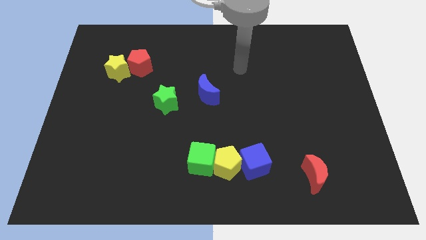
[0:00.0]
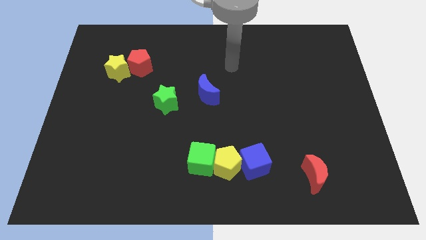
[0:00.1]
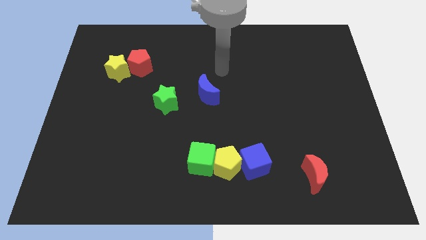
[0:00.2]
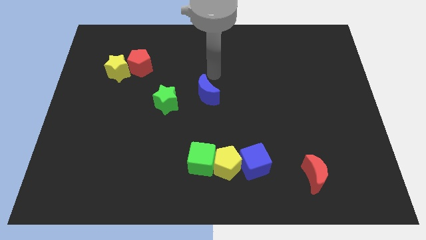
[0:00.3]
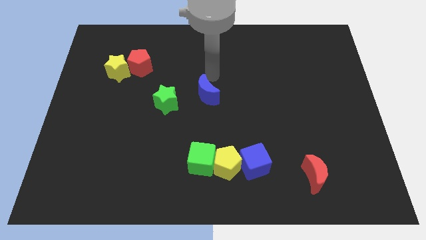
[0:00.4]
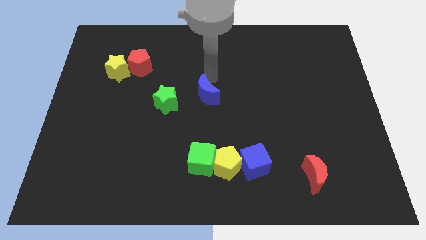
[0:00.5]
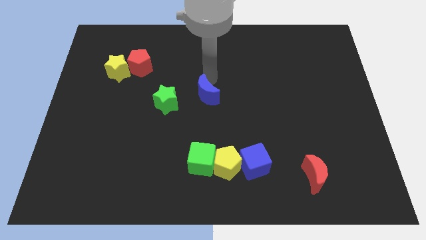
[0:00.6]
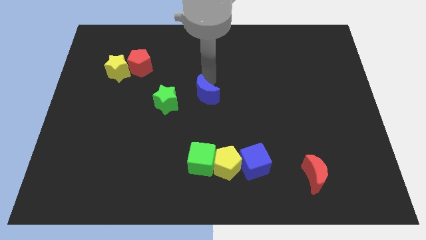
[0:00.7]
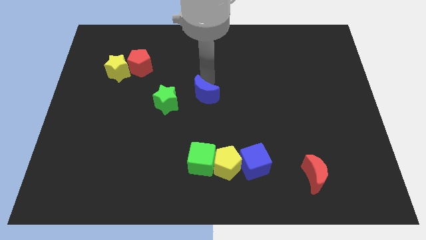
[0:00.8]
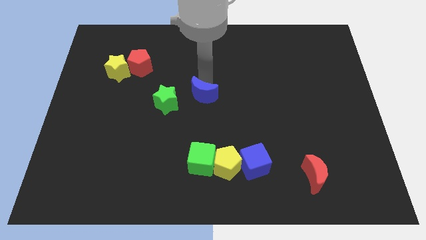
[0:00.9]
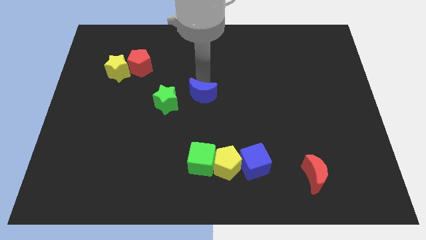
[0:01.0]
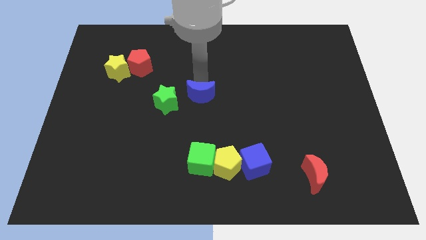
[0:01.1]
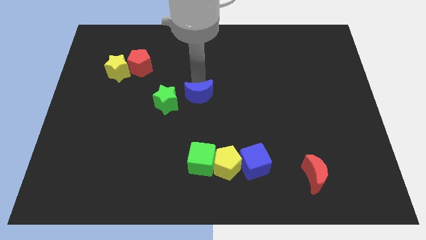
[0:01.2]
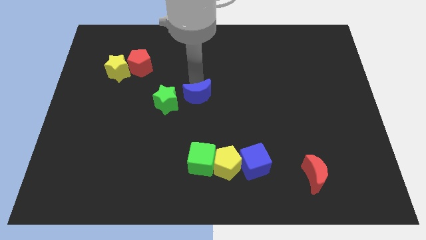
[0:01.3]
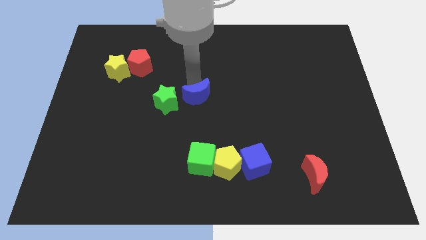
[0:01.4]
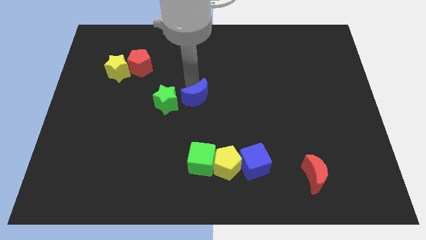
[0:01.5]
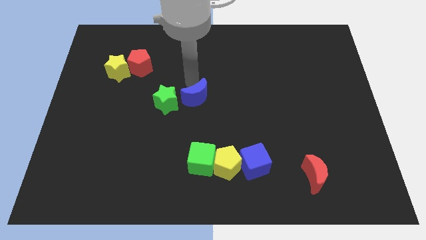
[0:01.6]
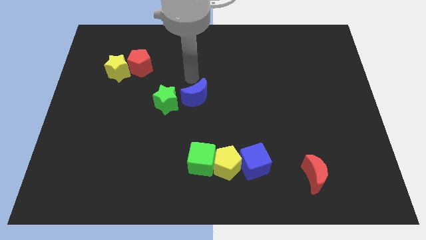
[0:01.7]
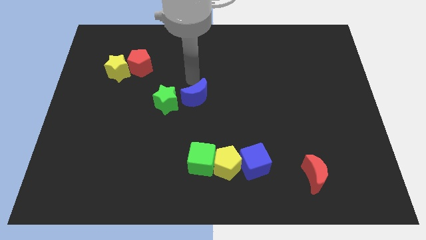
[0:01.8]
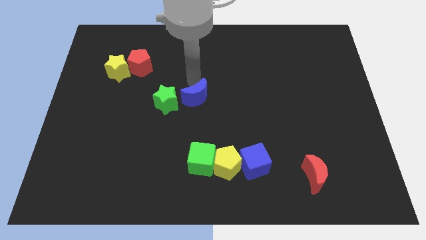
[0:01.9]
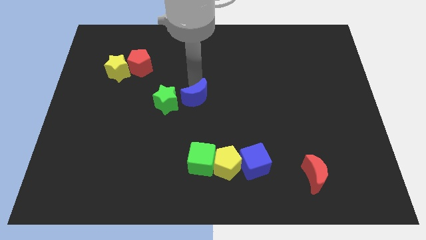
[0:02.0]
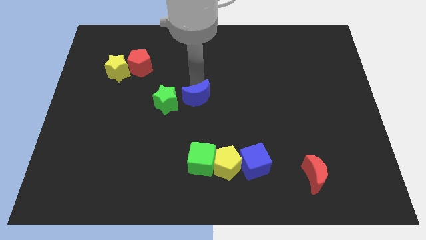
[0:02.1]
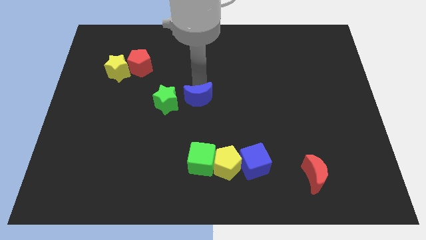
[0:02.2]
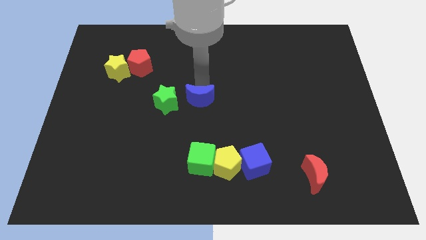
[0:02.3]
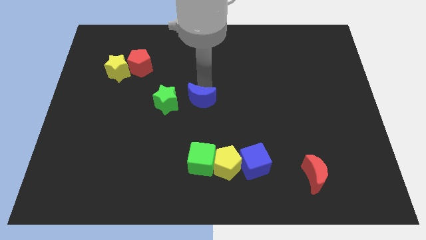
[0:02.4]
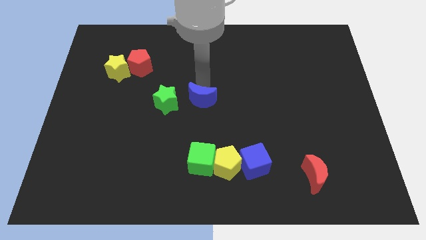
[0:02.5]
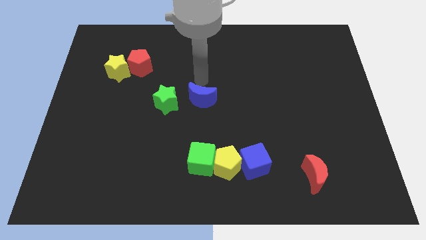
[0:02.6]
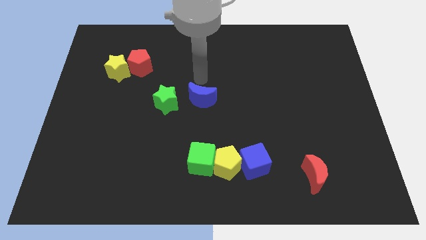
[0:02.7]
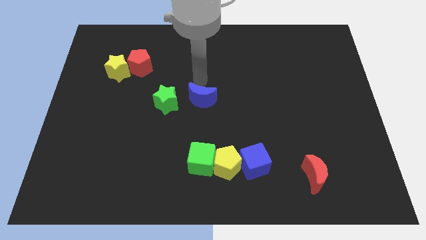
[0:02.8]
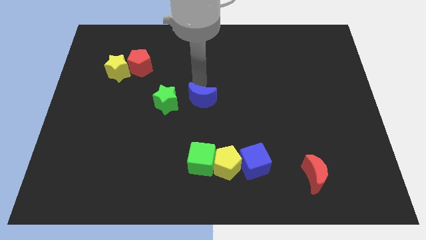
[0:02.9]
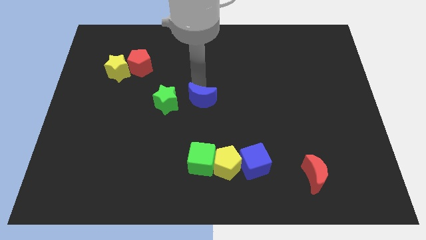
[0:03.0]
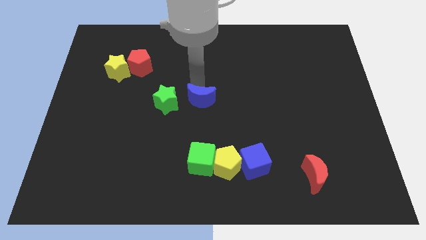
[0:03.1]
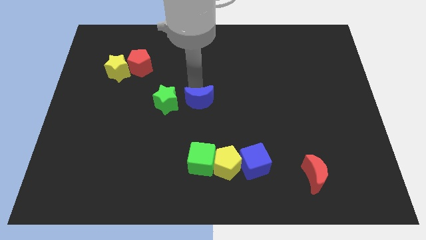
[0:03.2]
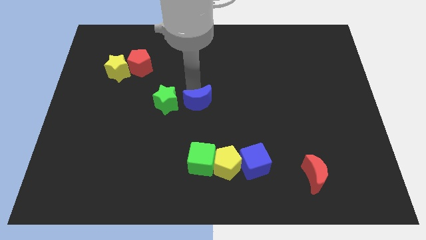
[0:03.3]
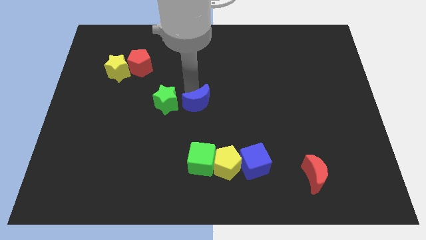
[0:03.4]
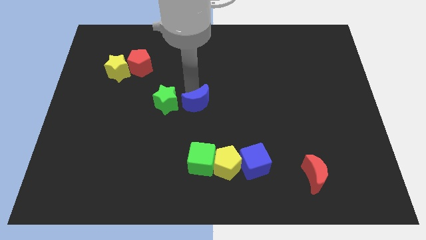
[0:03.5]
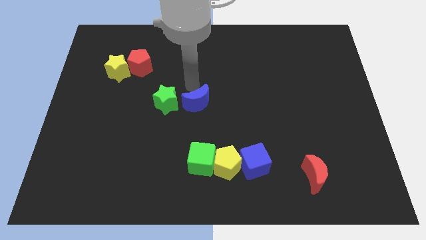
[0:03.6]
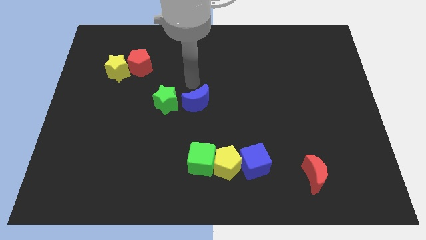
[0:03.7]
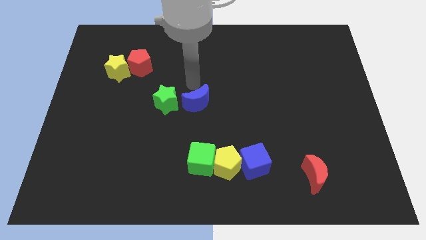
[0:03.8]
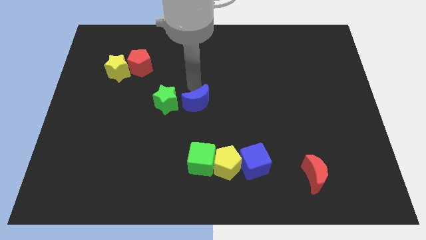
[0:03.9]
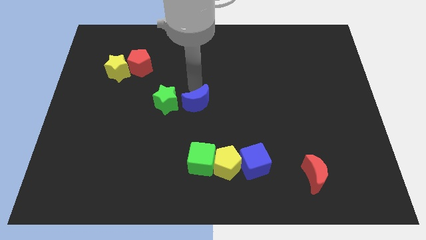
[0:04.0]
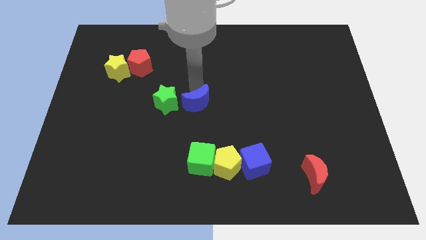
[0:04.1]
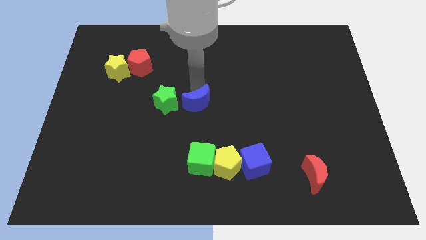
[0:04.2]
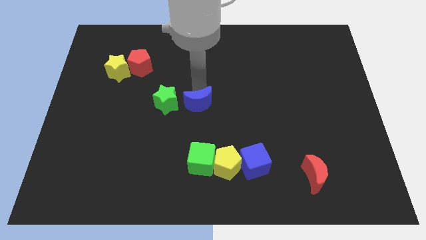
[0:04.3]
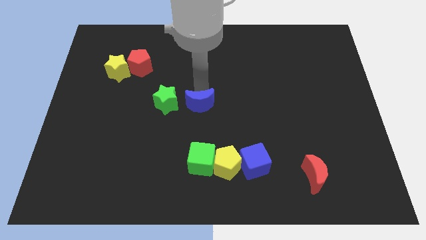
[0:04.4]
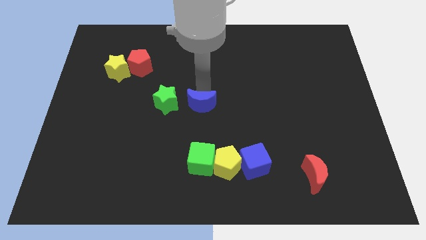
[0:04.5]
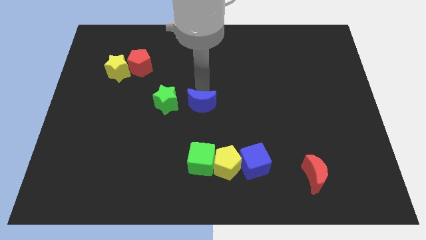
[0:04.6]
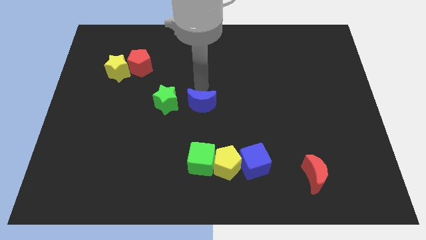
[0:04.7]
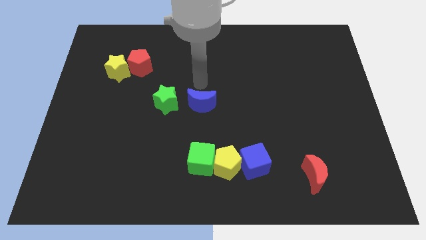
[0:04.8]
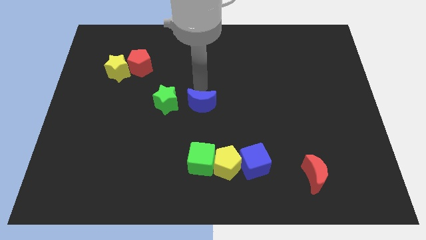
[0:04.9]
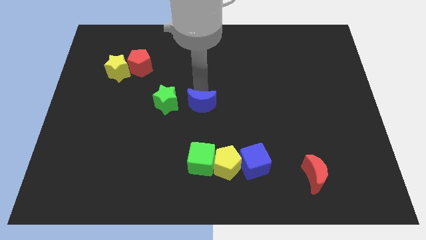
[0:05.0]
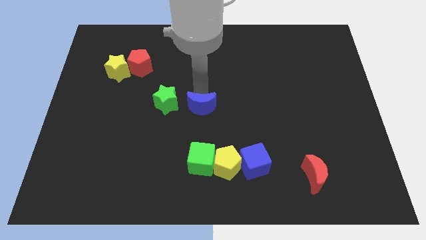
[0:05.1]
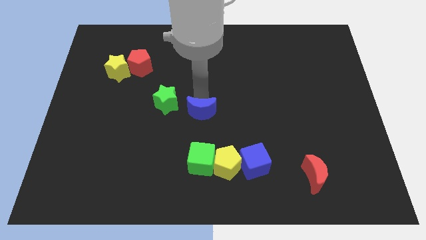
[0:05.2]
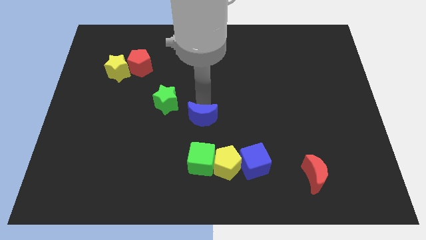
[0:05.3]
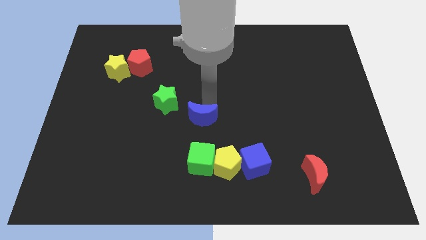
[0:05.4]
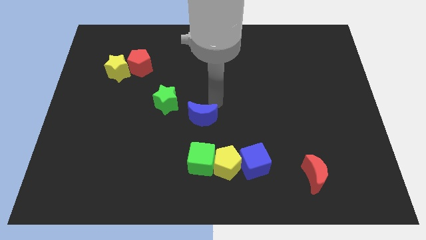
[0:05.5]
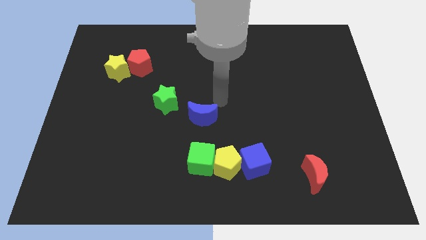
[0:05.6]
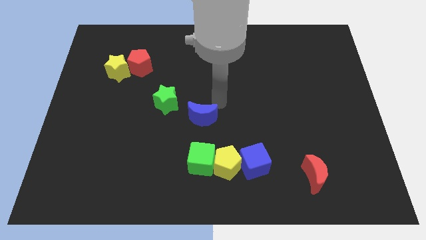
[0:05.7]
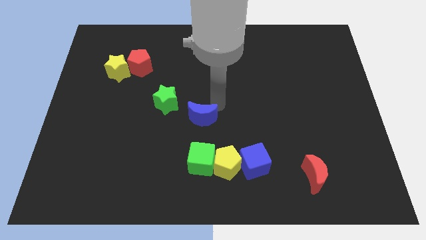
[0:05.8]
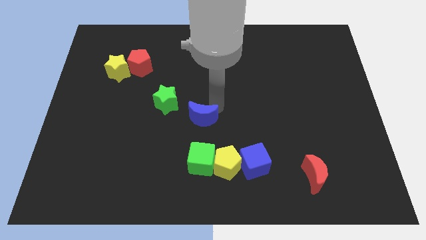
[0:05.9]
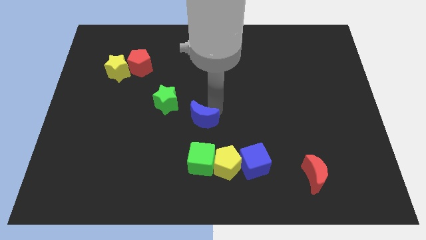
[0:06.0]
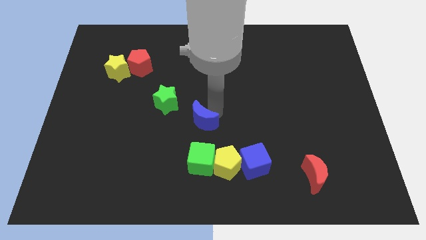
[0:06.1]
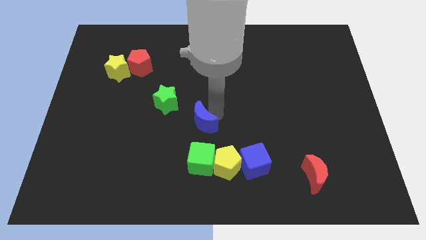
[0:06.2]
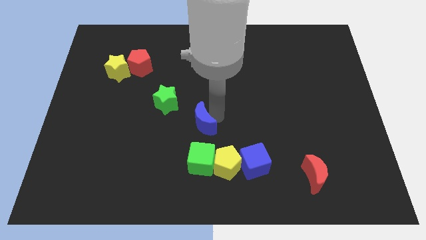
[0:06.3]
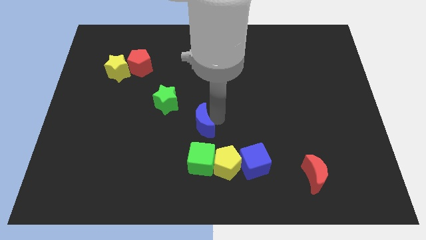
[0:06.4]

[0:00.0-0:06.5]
move the blue moon to the top left of the yellow pentagon
